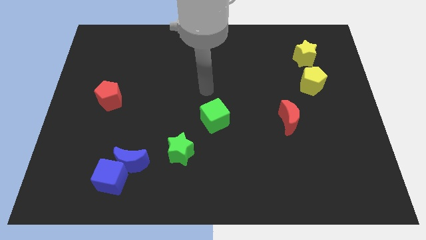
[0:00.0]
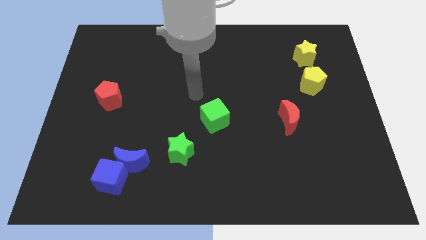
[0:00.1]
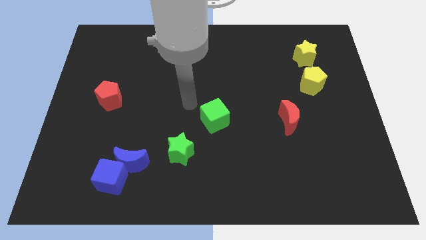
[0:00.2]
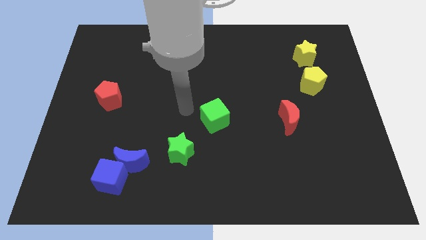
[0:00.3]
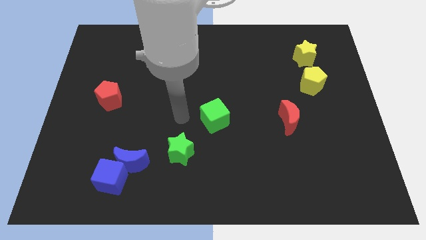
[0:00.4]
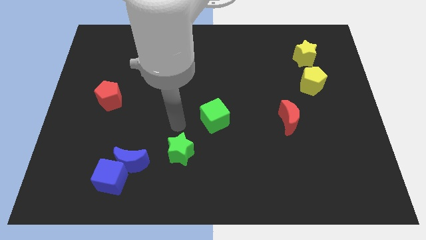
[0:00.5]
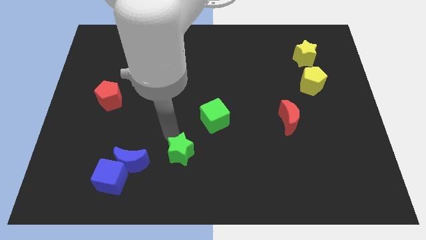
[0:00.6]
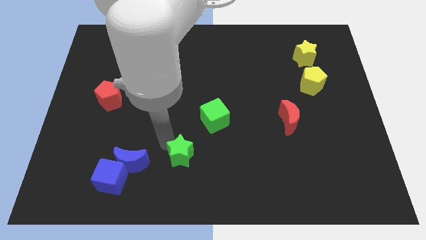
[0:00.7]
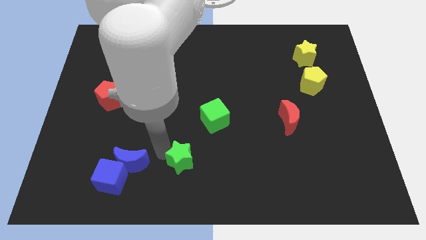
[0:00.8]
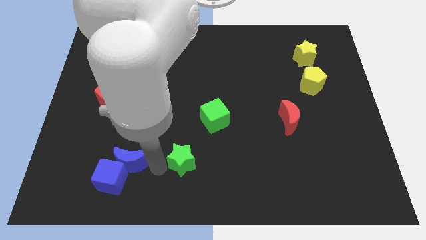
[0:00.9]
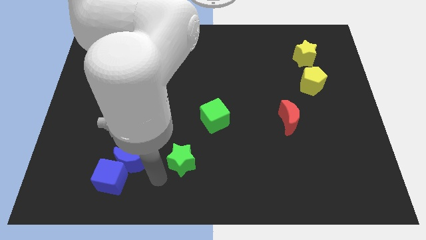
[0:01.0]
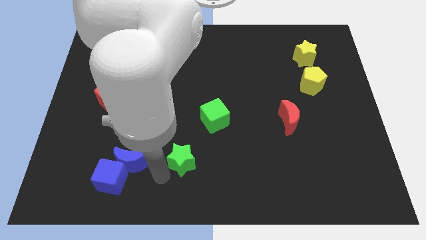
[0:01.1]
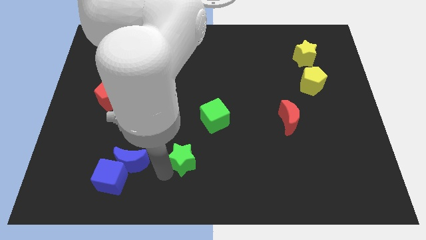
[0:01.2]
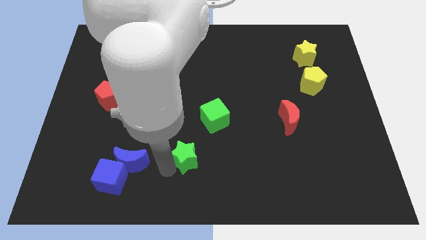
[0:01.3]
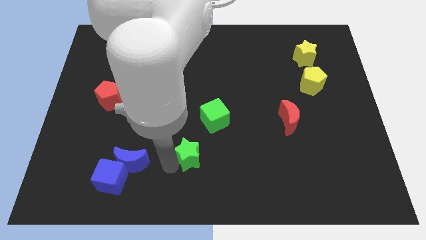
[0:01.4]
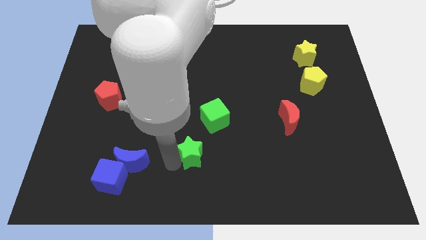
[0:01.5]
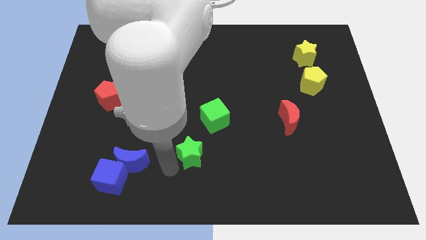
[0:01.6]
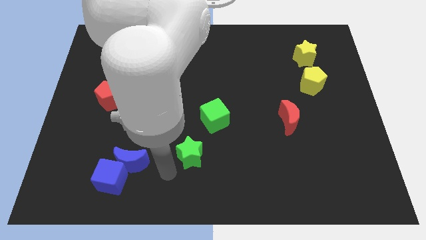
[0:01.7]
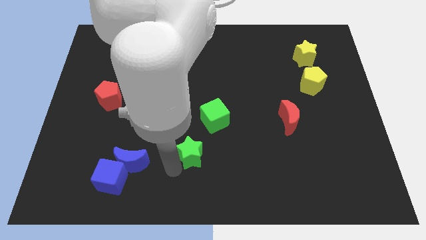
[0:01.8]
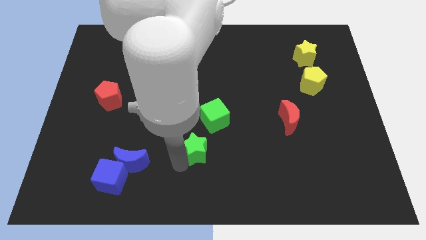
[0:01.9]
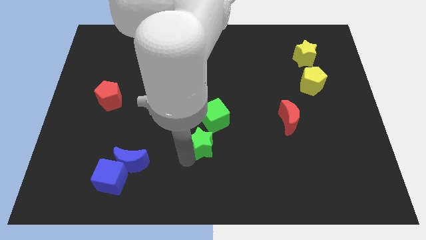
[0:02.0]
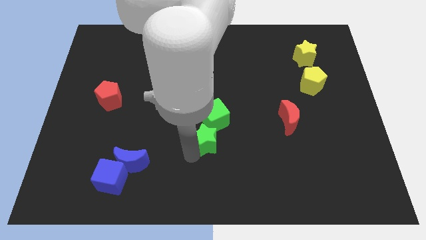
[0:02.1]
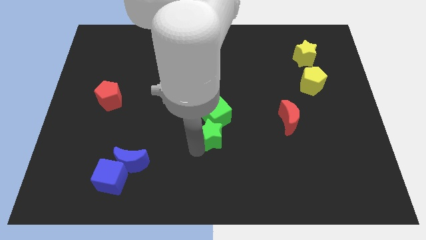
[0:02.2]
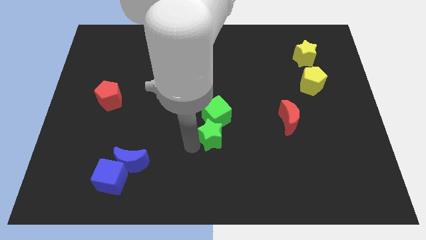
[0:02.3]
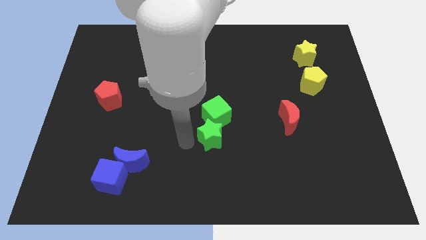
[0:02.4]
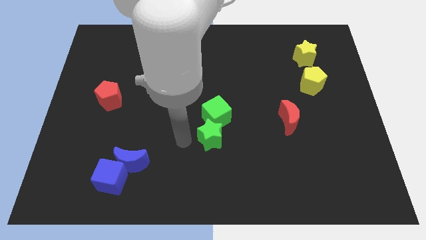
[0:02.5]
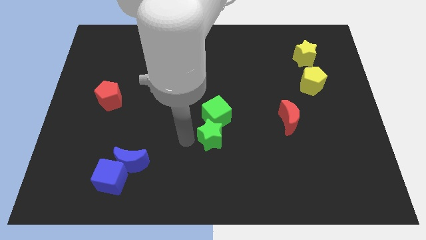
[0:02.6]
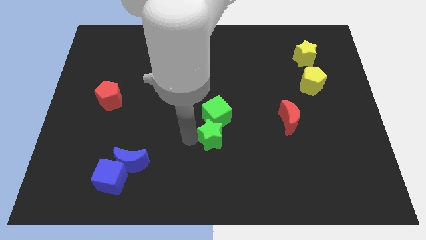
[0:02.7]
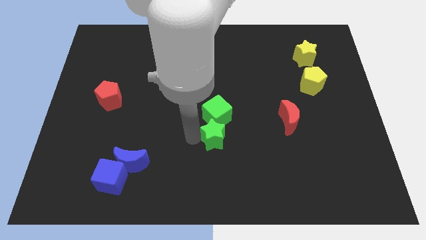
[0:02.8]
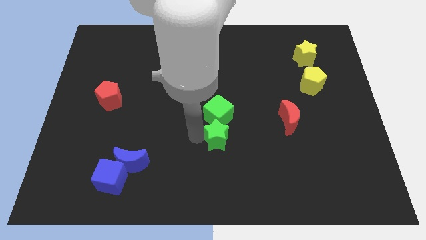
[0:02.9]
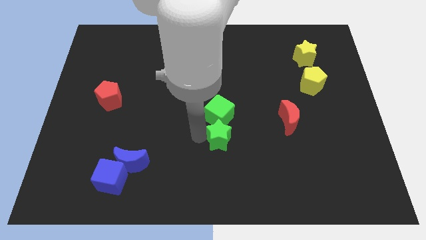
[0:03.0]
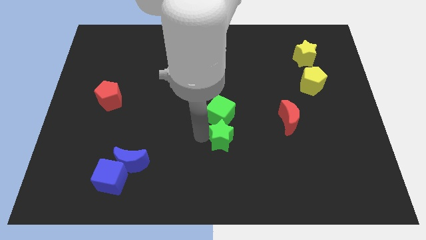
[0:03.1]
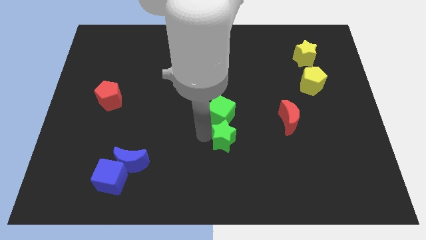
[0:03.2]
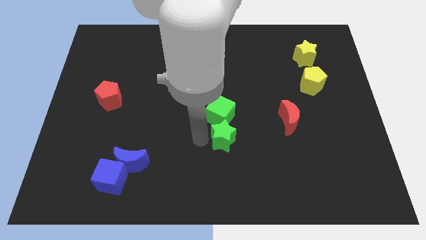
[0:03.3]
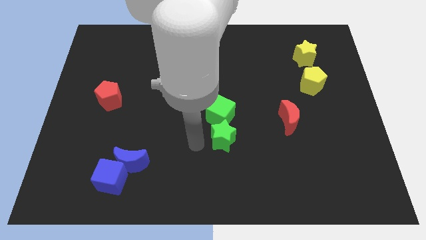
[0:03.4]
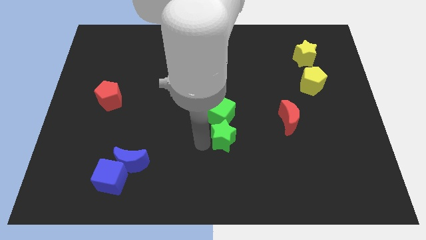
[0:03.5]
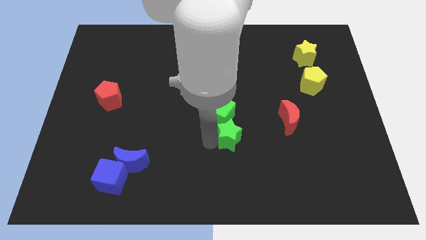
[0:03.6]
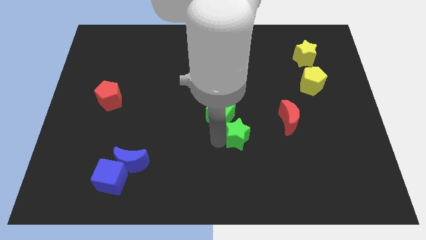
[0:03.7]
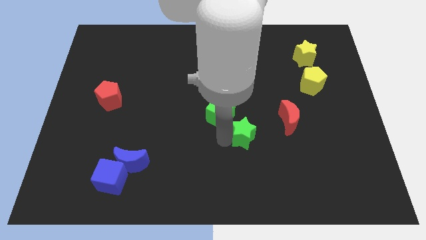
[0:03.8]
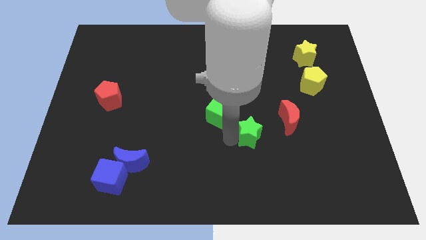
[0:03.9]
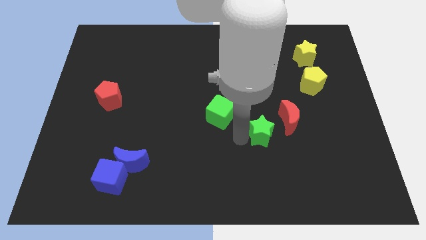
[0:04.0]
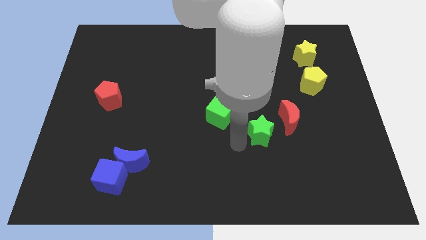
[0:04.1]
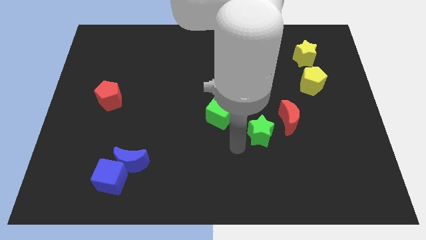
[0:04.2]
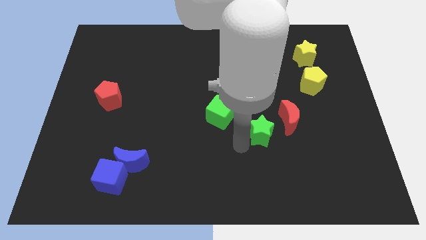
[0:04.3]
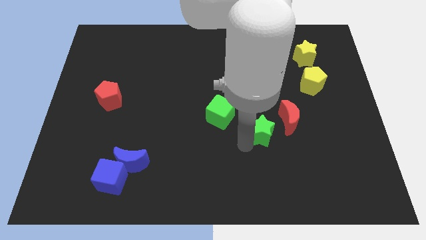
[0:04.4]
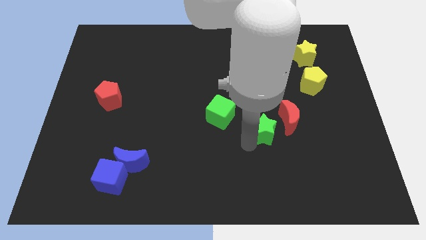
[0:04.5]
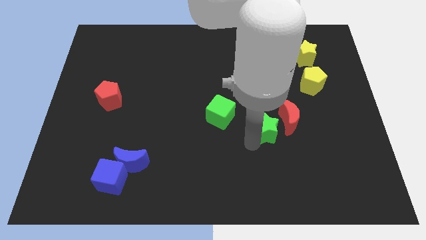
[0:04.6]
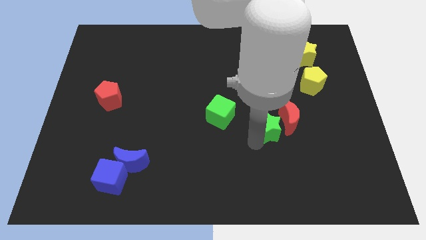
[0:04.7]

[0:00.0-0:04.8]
put the green star to the red moon

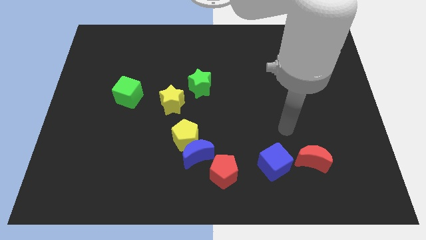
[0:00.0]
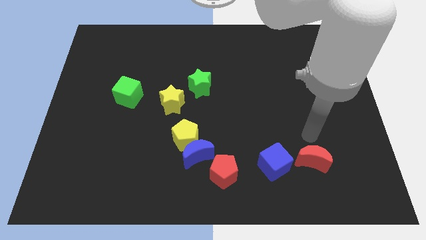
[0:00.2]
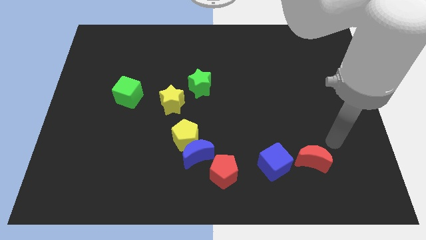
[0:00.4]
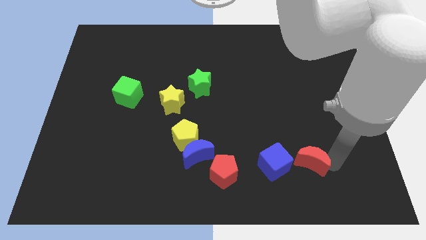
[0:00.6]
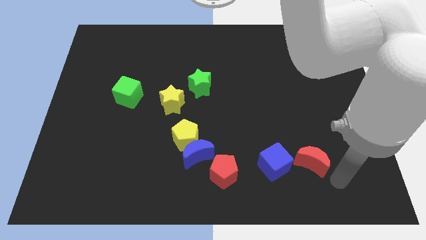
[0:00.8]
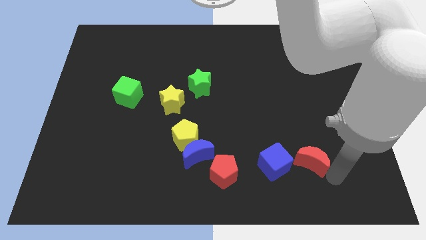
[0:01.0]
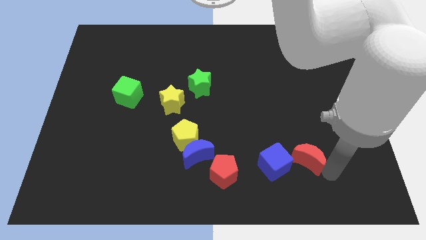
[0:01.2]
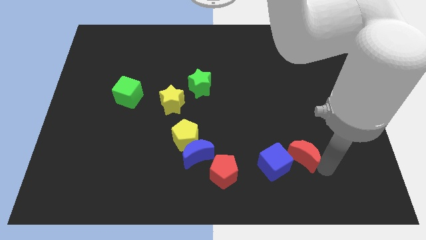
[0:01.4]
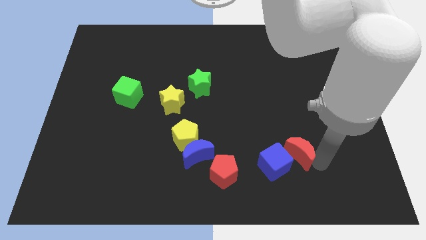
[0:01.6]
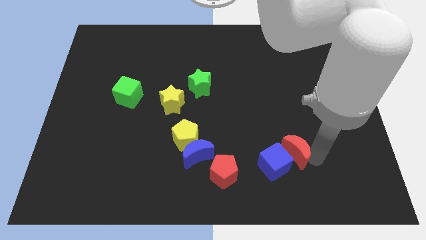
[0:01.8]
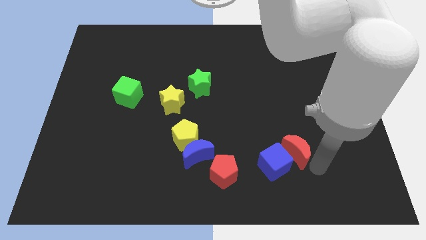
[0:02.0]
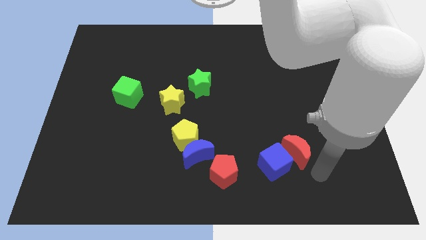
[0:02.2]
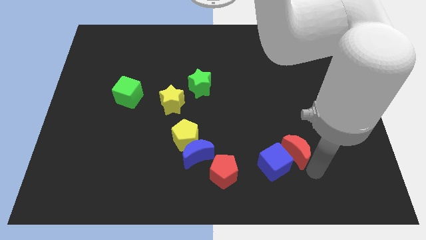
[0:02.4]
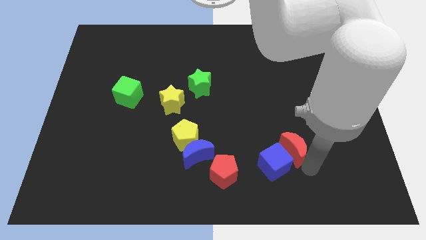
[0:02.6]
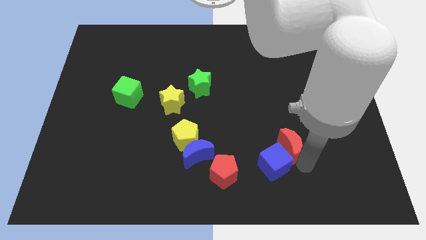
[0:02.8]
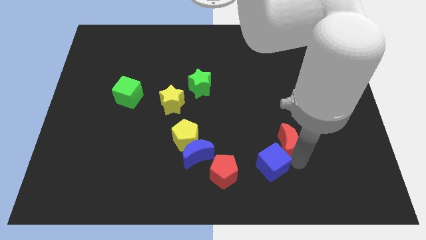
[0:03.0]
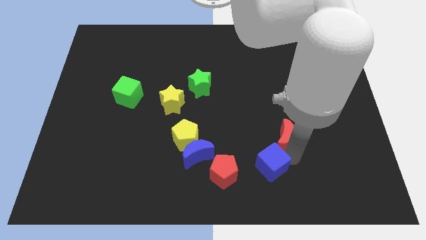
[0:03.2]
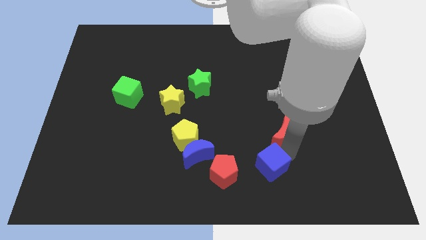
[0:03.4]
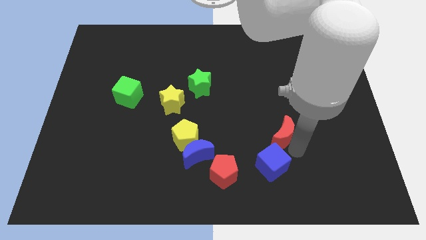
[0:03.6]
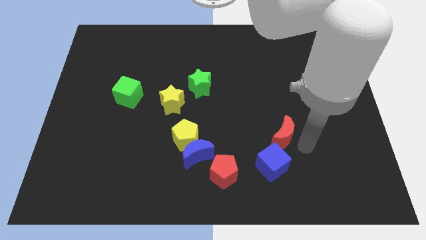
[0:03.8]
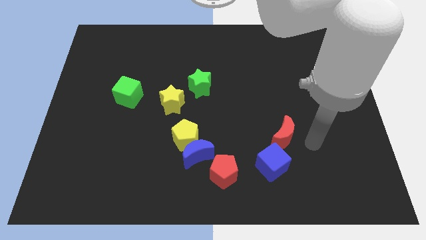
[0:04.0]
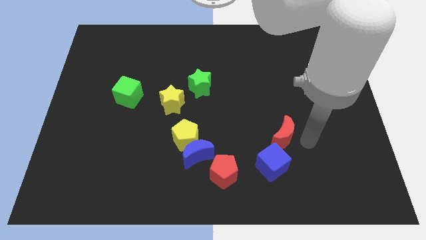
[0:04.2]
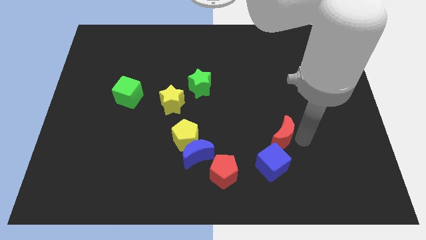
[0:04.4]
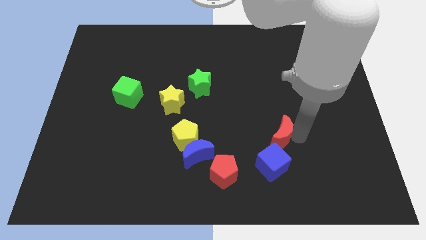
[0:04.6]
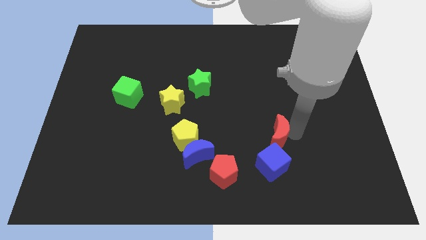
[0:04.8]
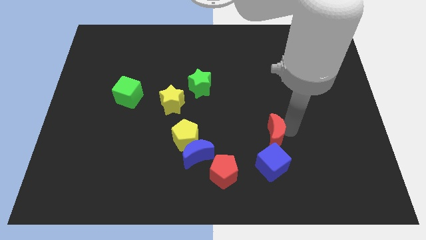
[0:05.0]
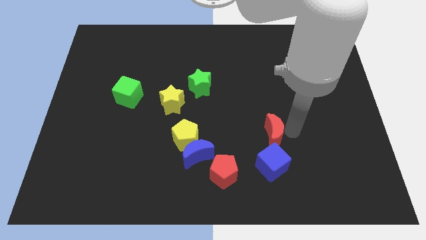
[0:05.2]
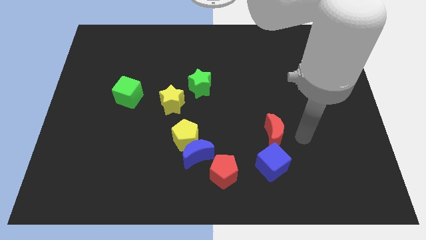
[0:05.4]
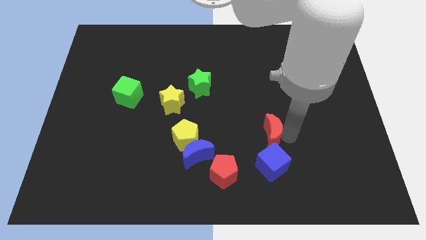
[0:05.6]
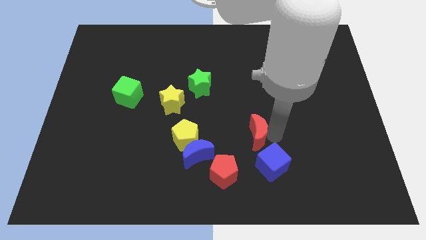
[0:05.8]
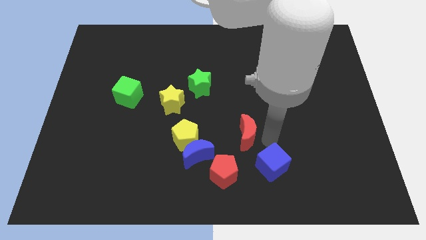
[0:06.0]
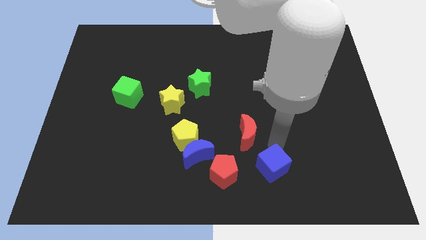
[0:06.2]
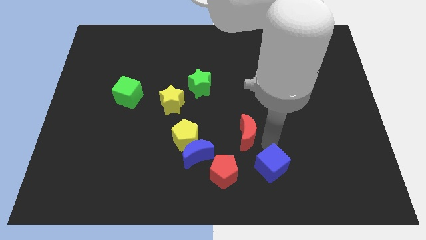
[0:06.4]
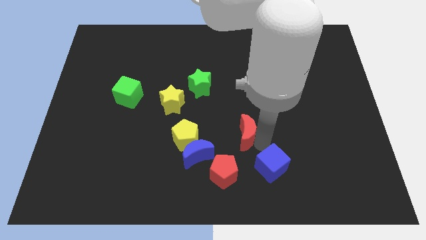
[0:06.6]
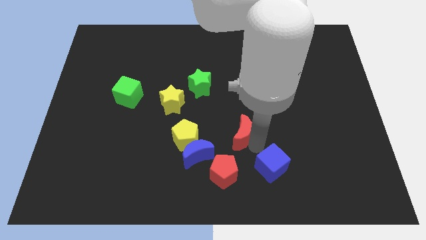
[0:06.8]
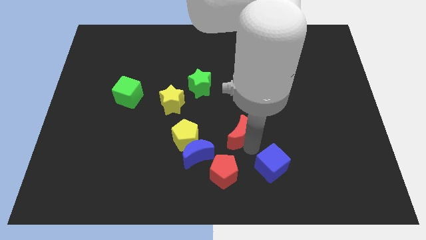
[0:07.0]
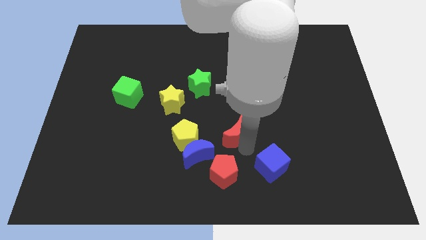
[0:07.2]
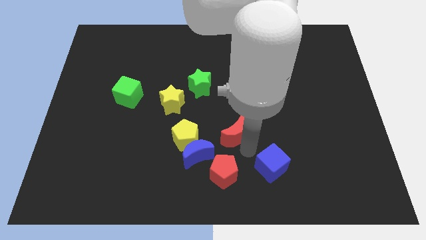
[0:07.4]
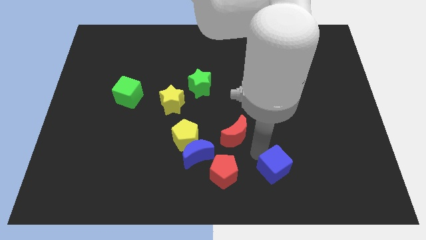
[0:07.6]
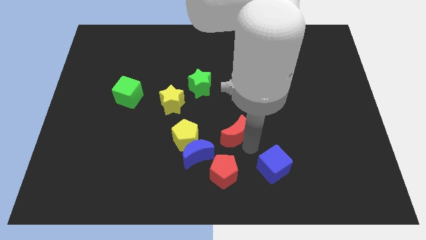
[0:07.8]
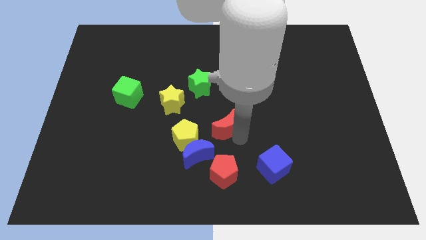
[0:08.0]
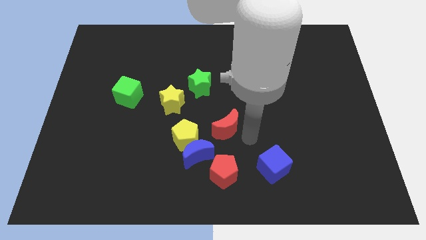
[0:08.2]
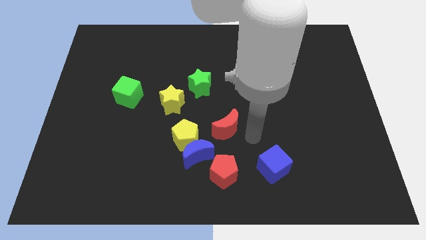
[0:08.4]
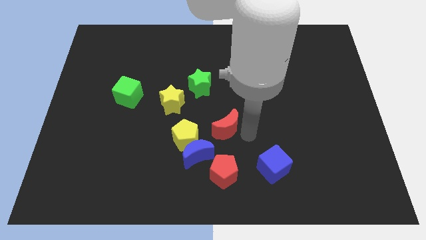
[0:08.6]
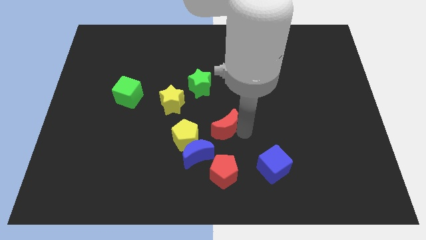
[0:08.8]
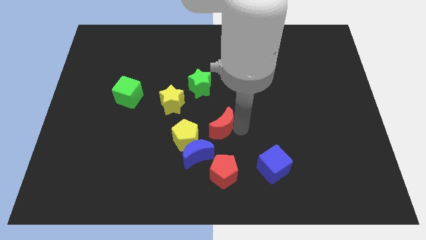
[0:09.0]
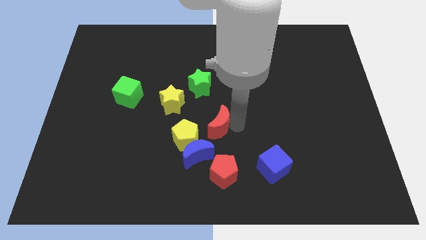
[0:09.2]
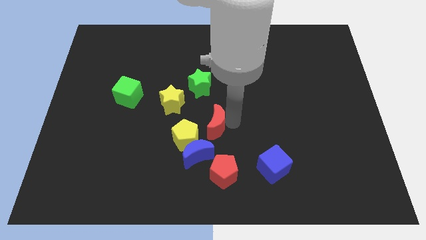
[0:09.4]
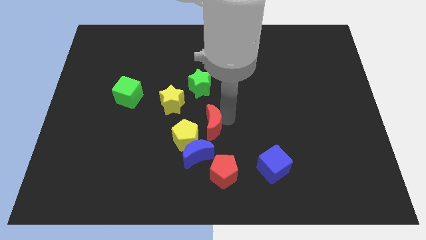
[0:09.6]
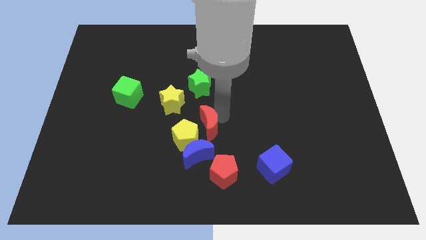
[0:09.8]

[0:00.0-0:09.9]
put the red moon to the yellow pentagon
